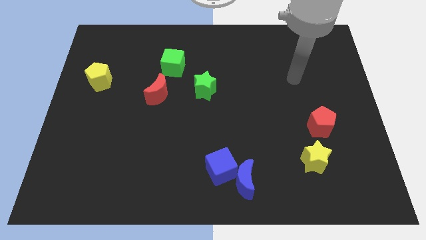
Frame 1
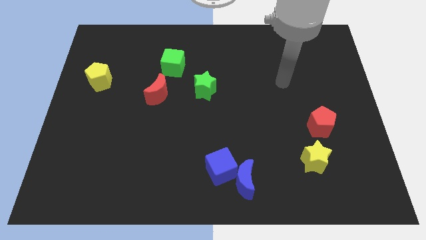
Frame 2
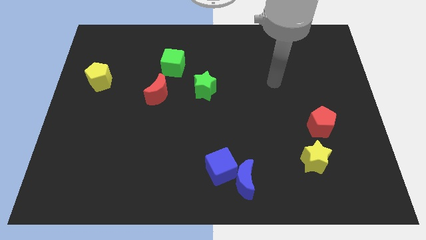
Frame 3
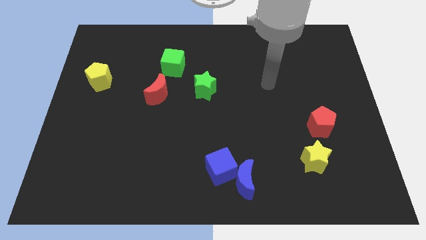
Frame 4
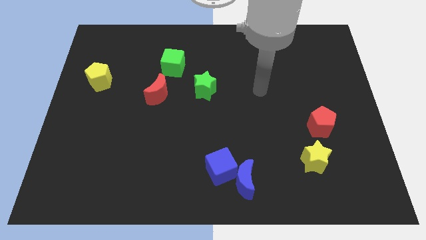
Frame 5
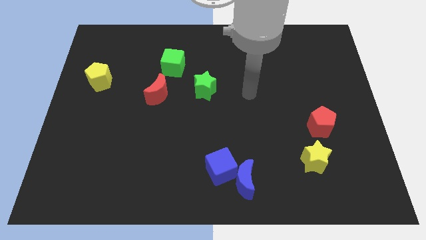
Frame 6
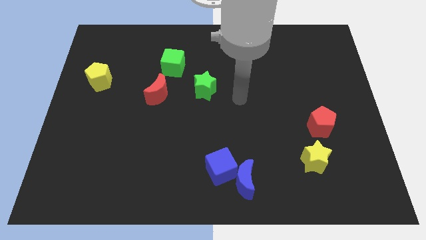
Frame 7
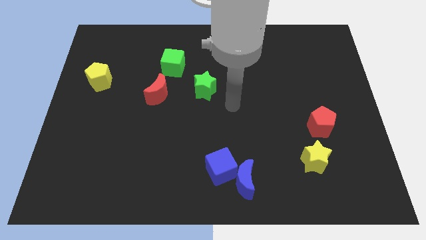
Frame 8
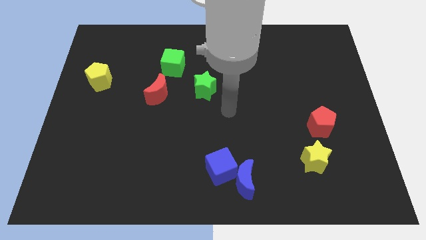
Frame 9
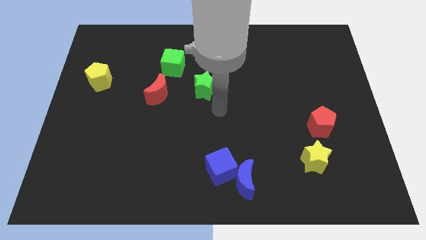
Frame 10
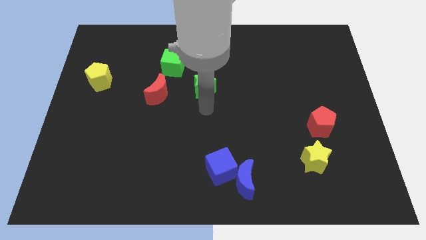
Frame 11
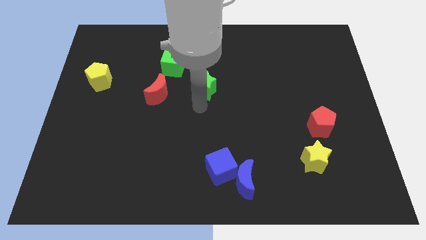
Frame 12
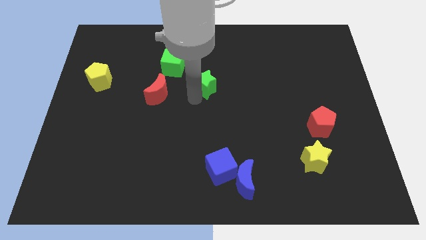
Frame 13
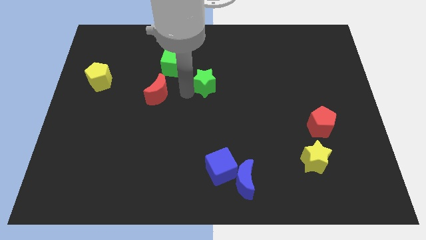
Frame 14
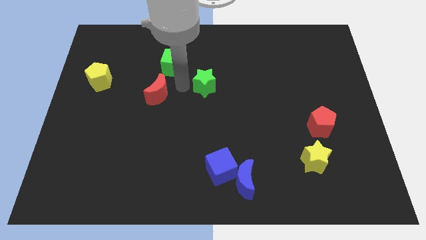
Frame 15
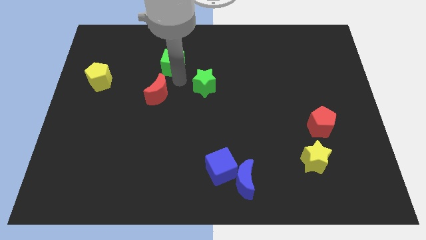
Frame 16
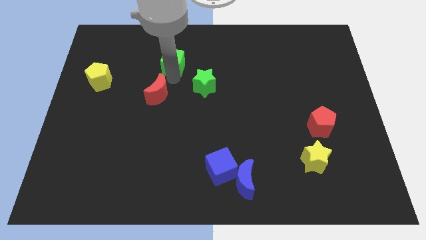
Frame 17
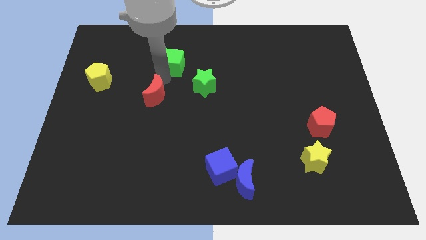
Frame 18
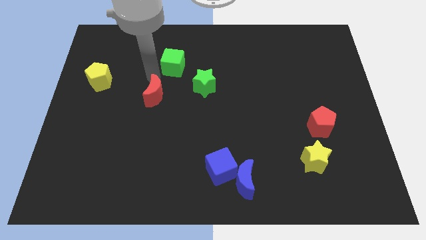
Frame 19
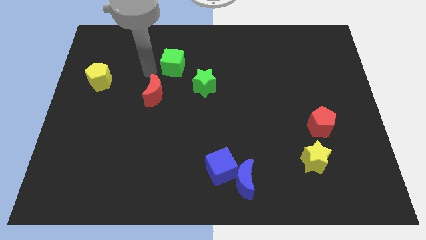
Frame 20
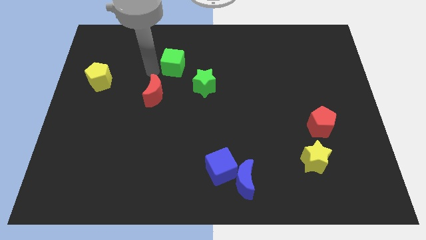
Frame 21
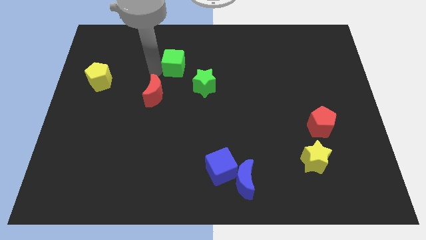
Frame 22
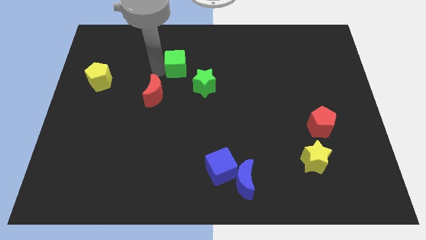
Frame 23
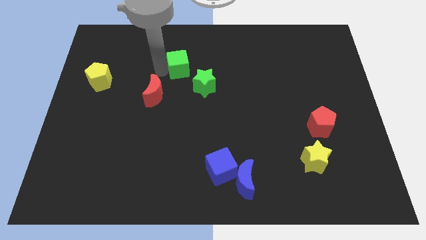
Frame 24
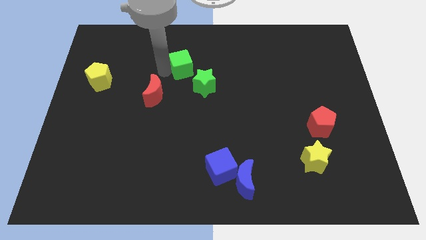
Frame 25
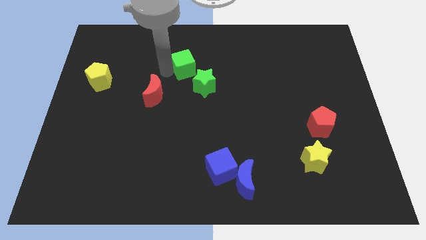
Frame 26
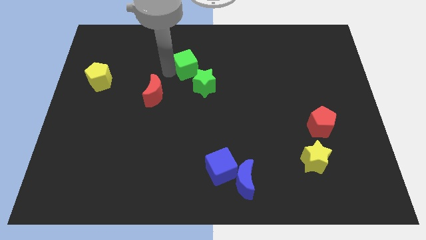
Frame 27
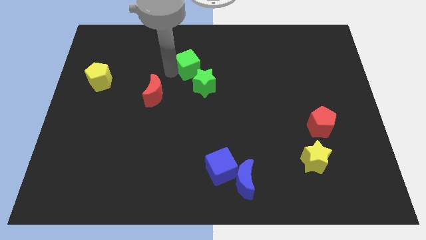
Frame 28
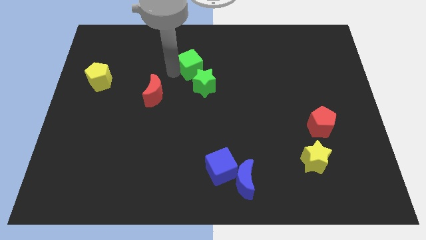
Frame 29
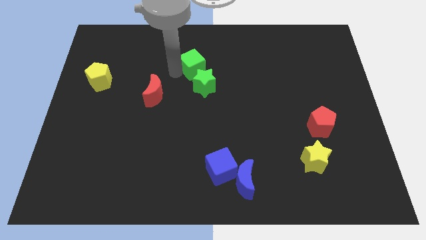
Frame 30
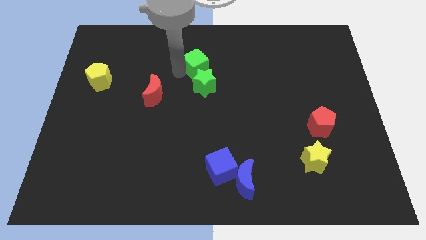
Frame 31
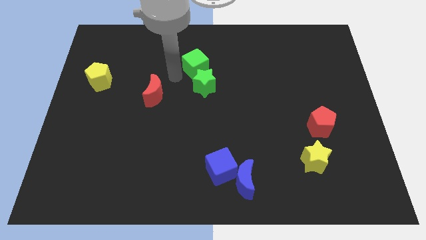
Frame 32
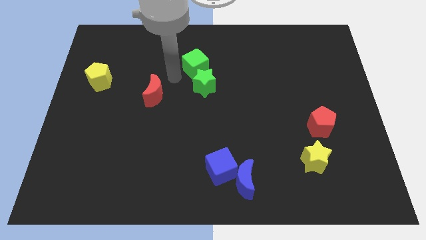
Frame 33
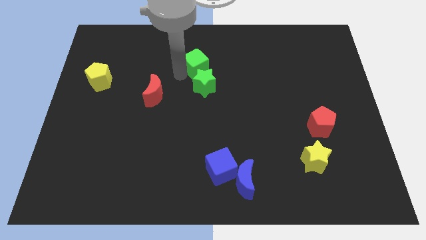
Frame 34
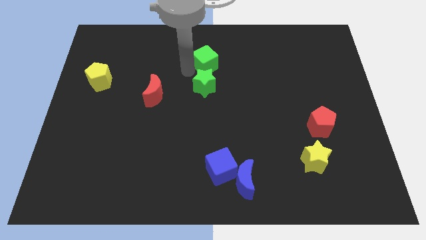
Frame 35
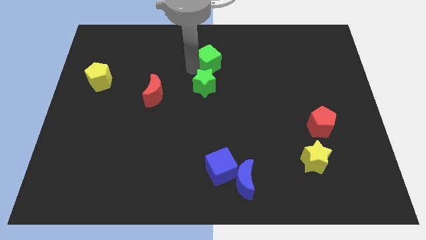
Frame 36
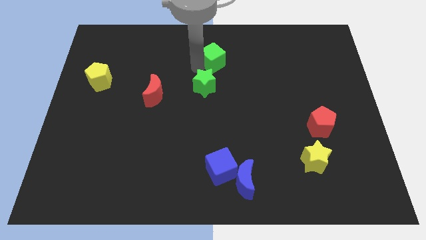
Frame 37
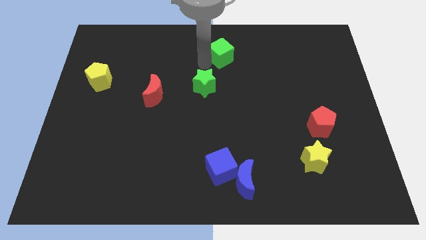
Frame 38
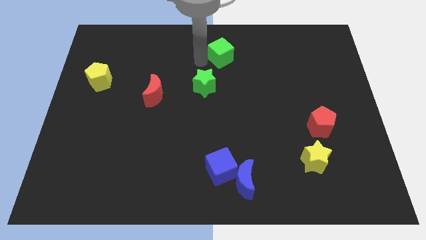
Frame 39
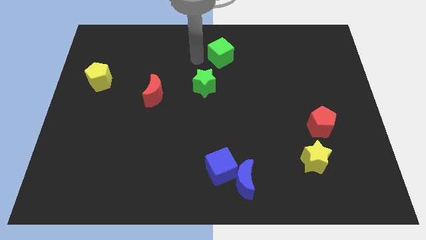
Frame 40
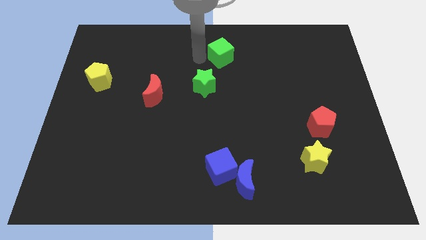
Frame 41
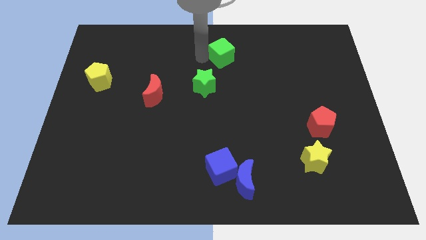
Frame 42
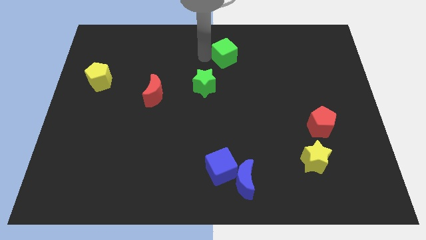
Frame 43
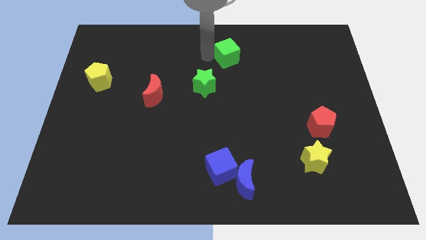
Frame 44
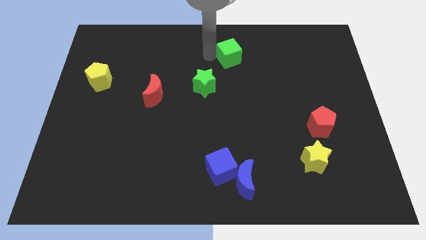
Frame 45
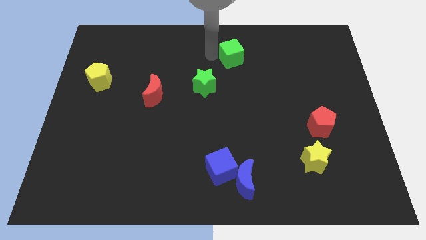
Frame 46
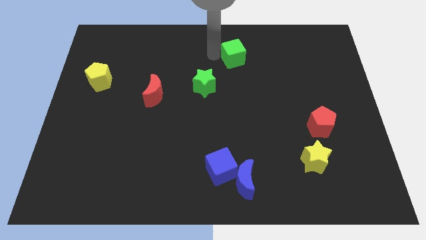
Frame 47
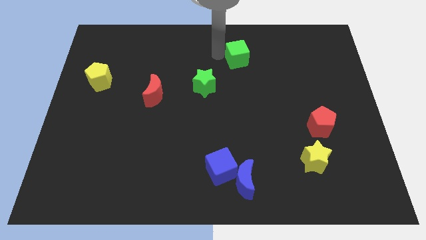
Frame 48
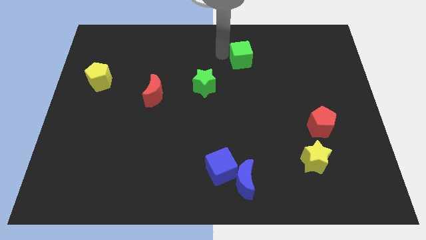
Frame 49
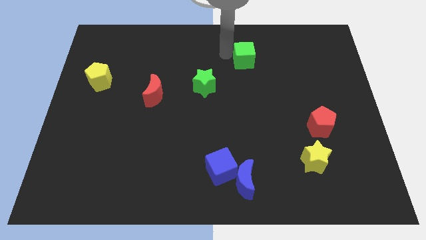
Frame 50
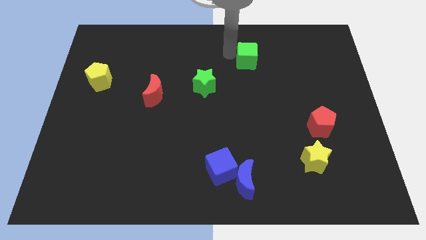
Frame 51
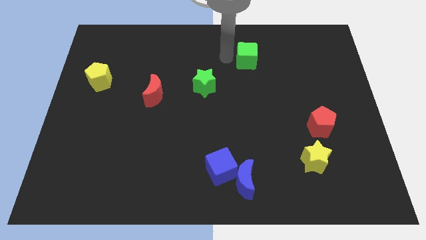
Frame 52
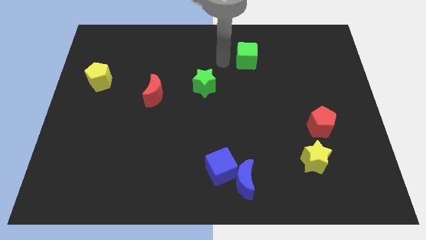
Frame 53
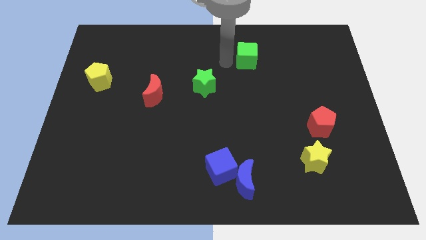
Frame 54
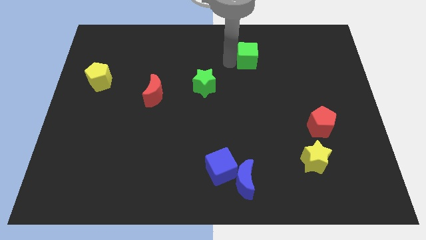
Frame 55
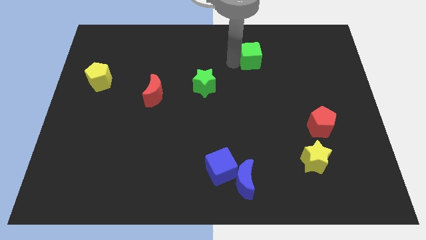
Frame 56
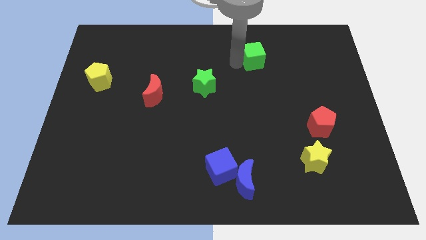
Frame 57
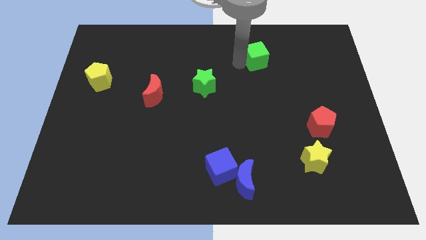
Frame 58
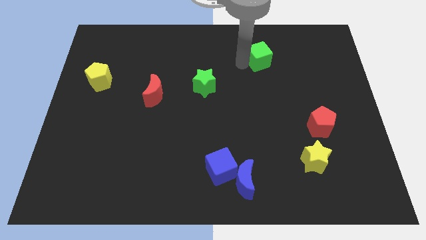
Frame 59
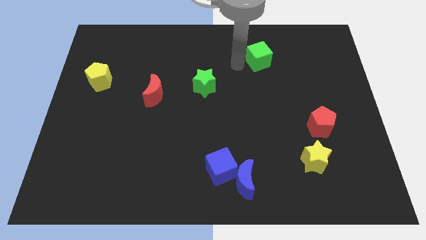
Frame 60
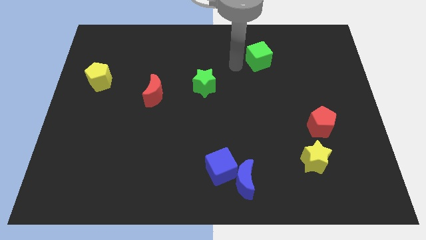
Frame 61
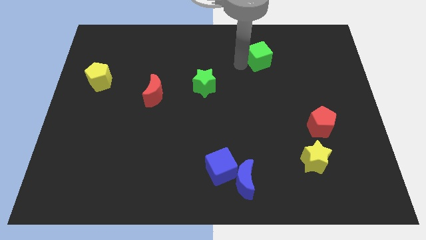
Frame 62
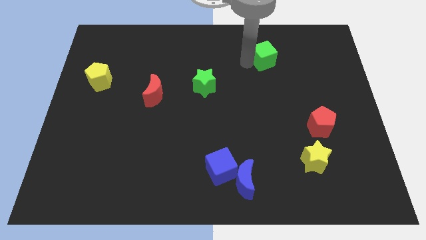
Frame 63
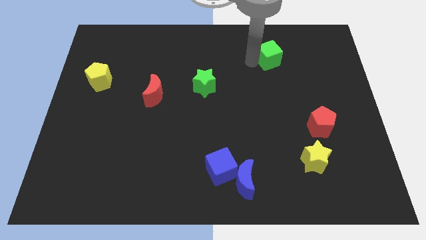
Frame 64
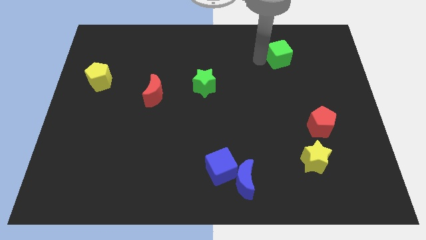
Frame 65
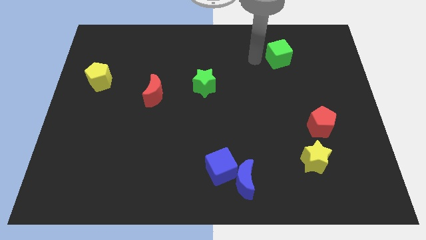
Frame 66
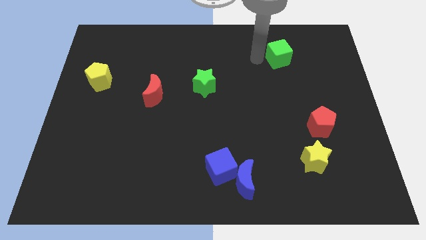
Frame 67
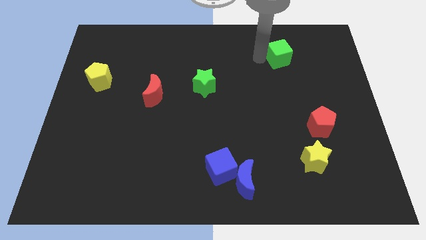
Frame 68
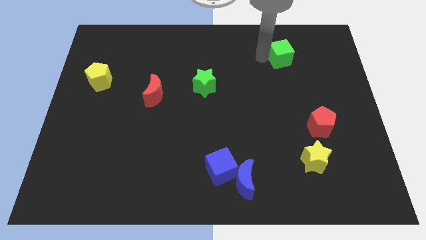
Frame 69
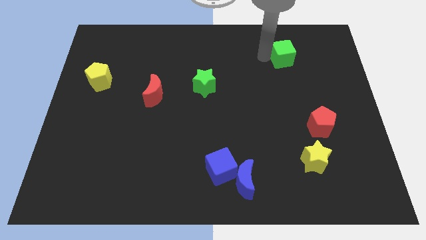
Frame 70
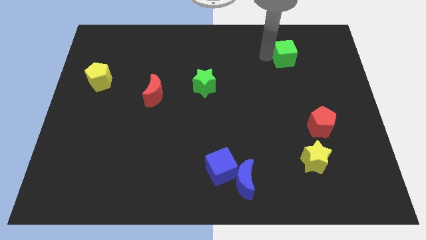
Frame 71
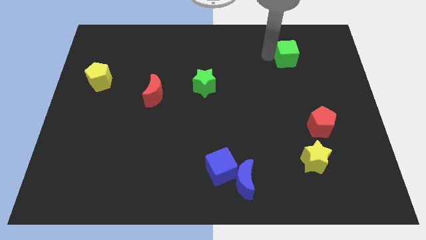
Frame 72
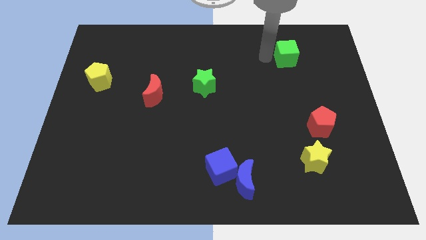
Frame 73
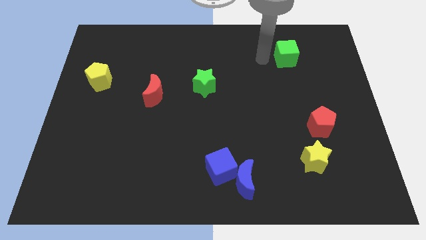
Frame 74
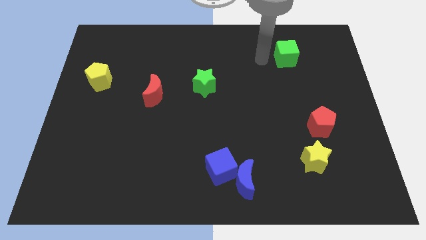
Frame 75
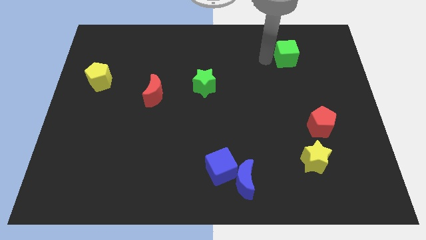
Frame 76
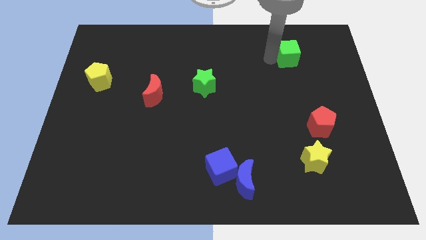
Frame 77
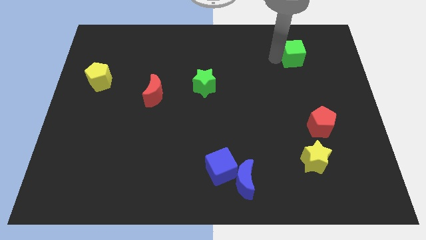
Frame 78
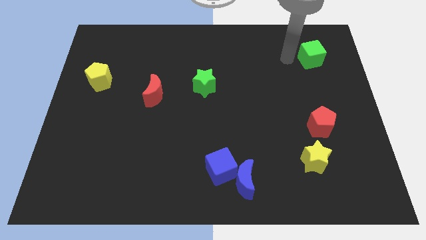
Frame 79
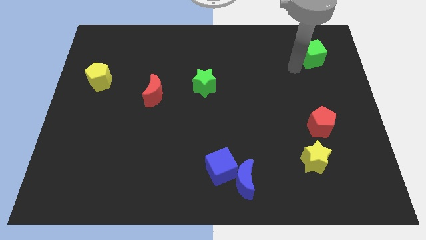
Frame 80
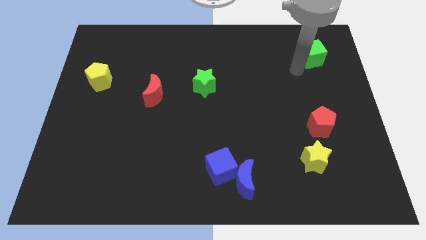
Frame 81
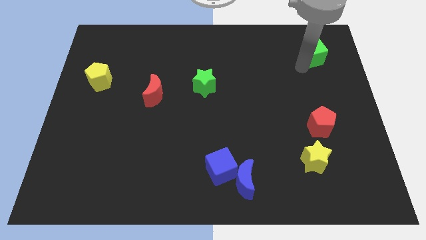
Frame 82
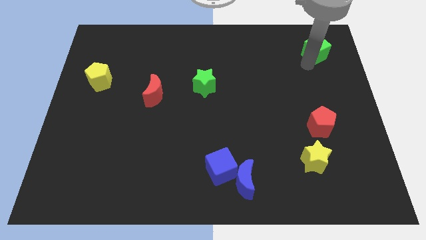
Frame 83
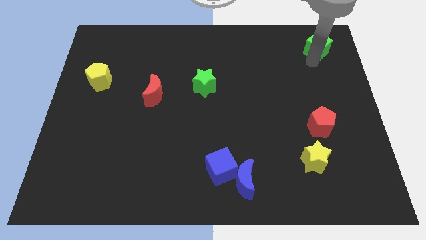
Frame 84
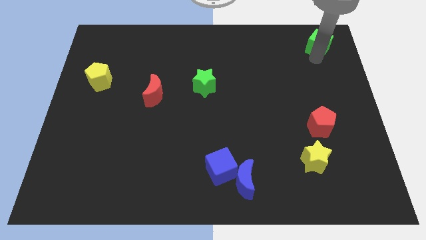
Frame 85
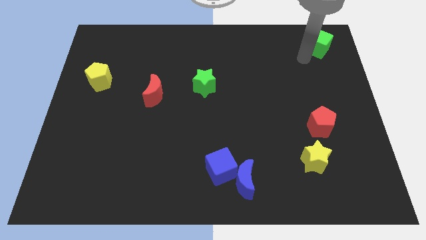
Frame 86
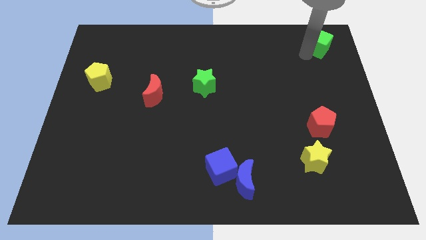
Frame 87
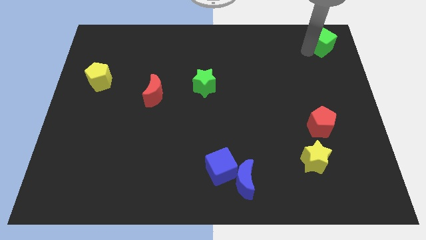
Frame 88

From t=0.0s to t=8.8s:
put the green cube to the upper right corner
